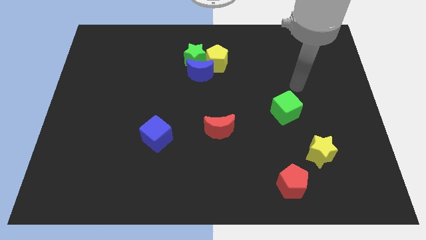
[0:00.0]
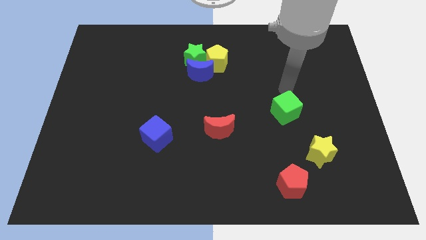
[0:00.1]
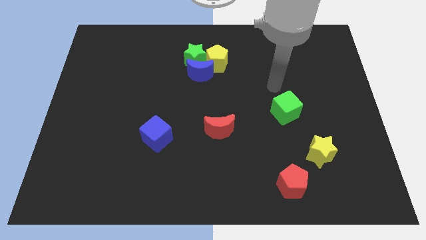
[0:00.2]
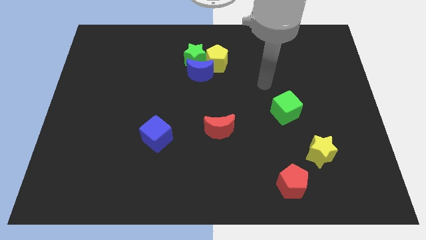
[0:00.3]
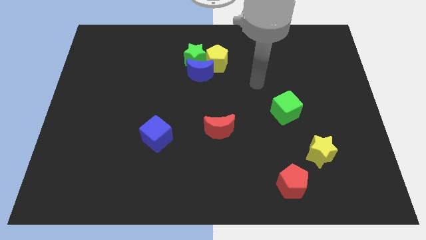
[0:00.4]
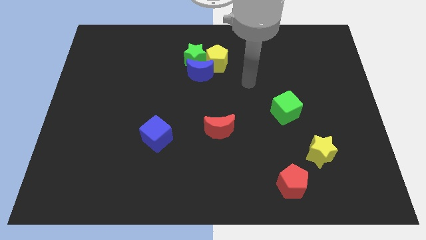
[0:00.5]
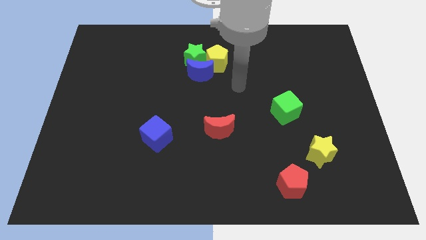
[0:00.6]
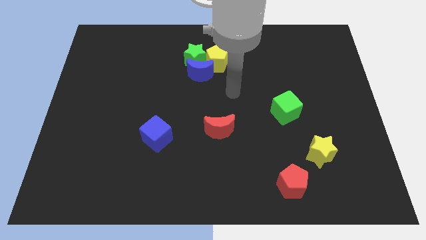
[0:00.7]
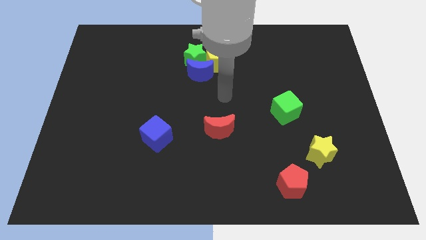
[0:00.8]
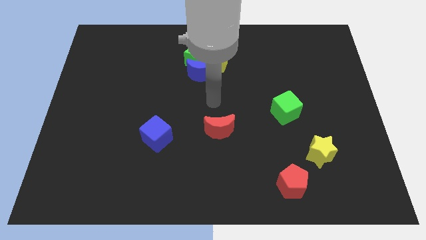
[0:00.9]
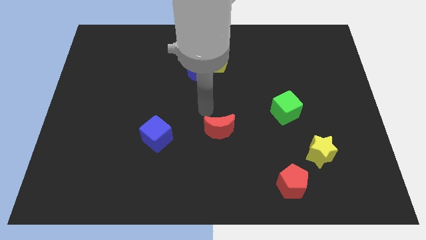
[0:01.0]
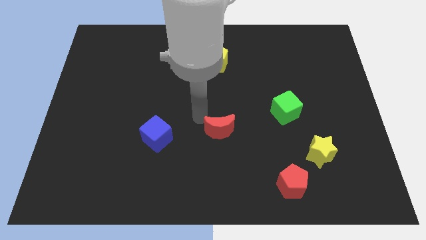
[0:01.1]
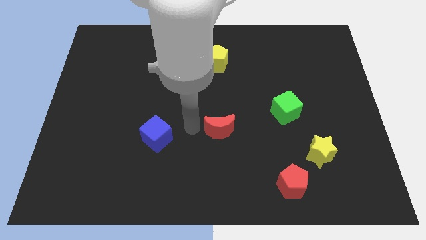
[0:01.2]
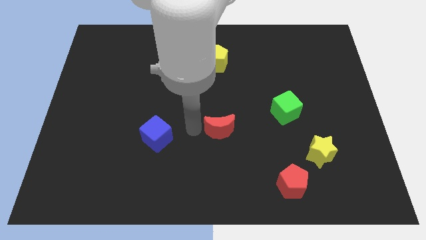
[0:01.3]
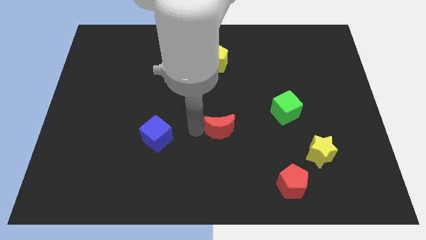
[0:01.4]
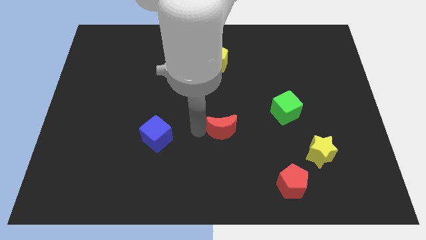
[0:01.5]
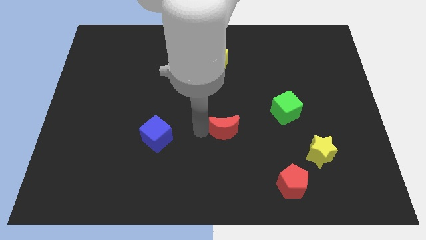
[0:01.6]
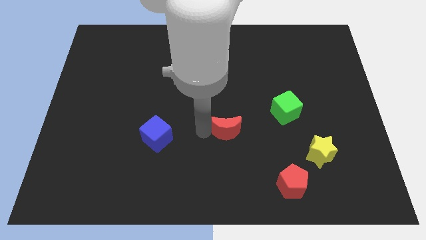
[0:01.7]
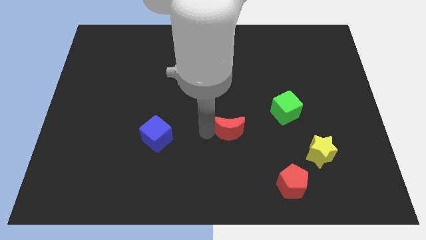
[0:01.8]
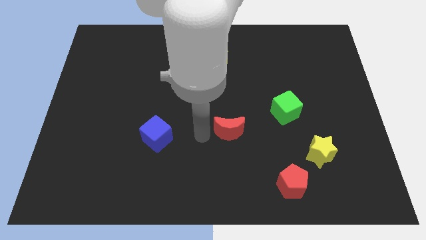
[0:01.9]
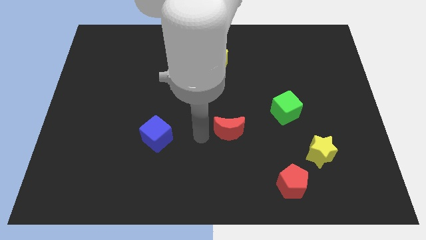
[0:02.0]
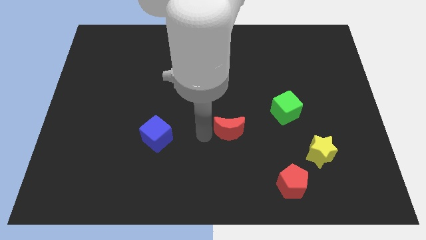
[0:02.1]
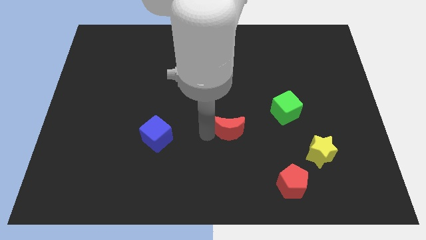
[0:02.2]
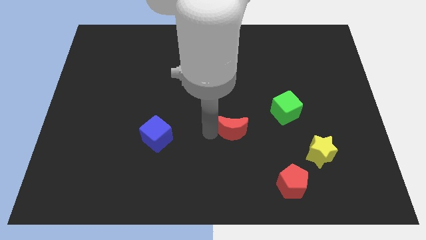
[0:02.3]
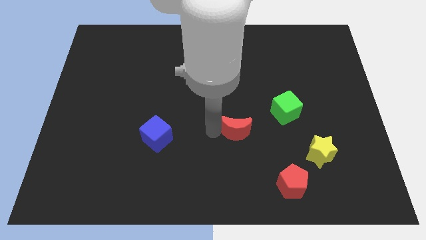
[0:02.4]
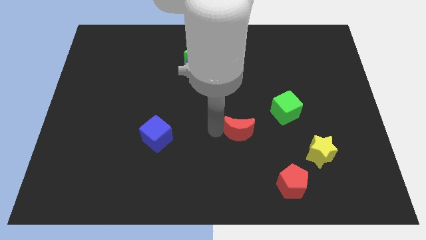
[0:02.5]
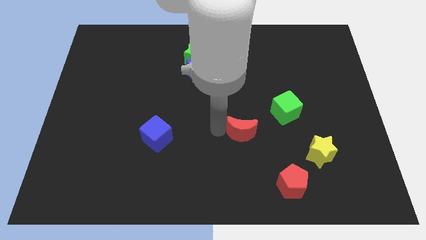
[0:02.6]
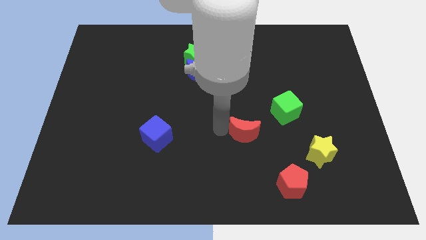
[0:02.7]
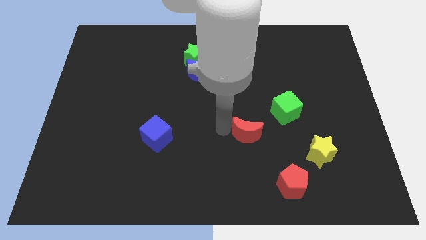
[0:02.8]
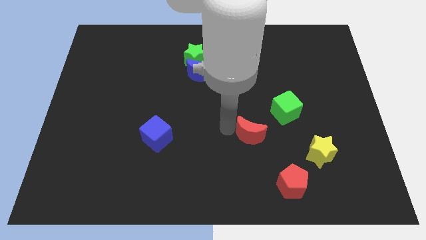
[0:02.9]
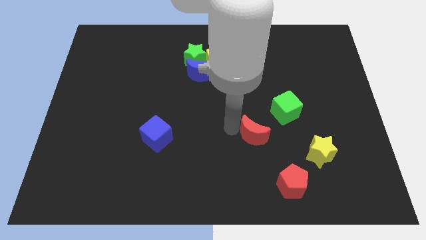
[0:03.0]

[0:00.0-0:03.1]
slide the red moon right a little bit

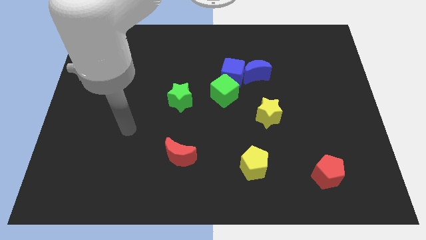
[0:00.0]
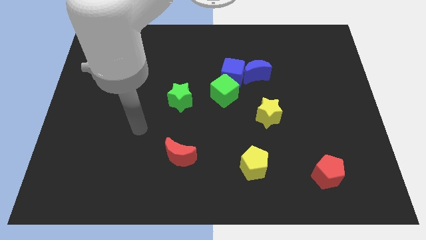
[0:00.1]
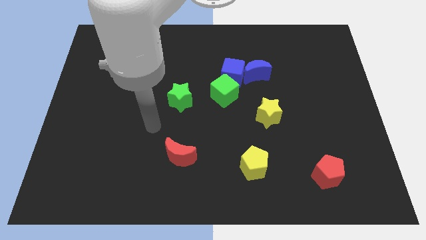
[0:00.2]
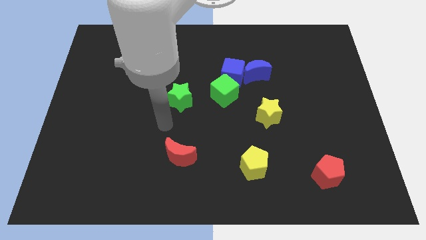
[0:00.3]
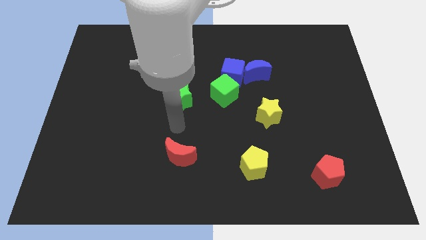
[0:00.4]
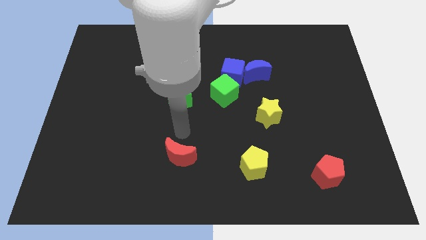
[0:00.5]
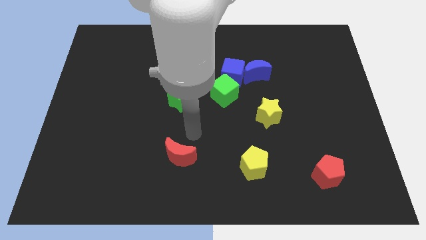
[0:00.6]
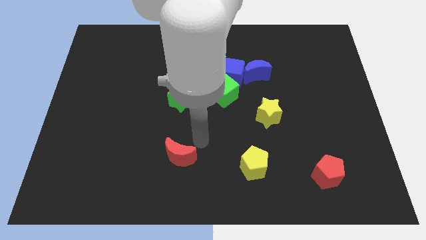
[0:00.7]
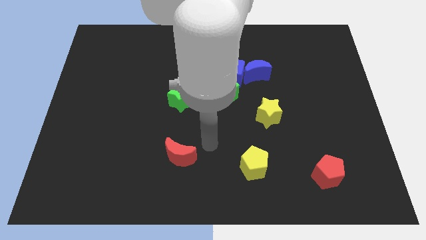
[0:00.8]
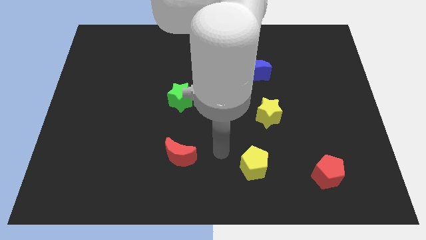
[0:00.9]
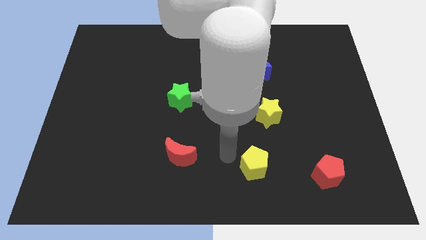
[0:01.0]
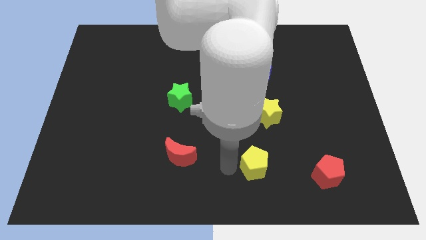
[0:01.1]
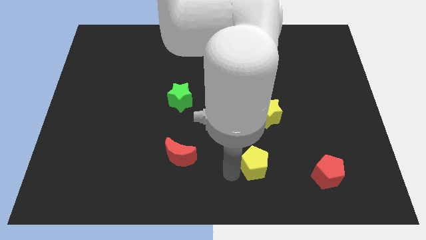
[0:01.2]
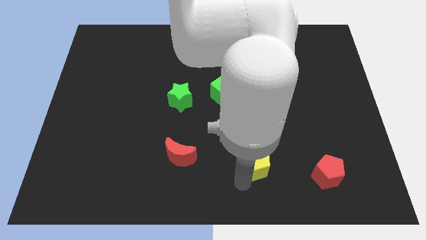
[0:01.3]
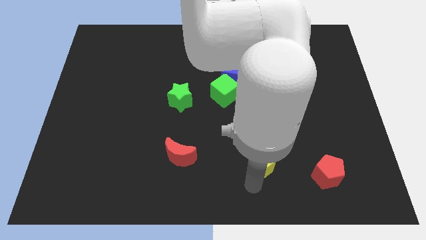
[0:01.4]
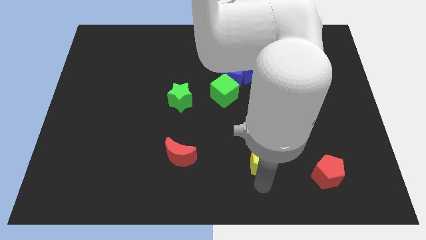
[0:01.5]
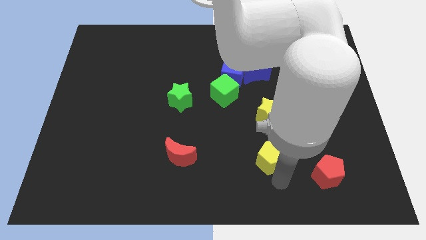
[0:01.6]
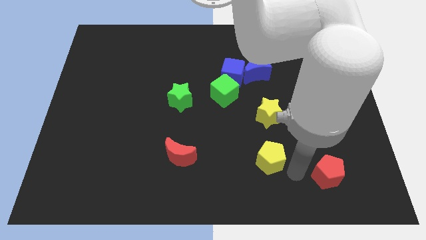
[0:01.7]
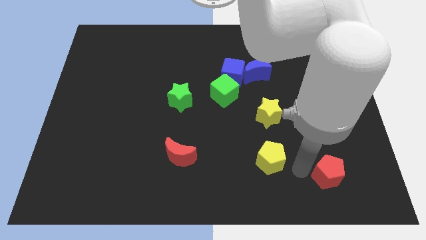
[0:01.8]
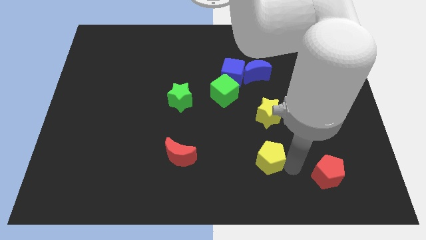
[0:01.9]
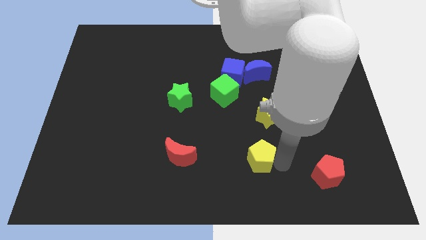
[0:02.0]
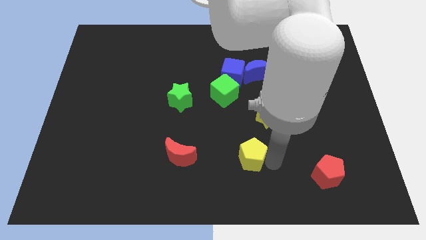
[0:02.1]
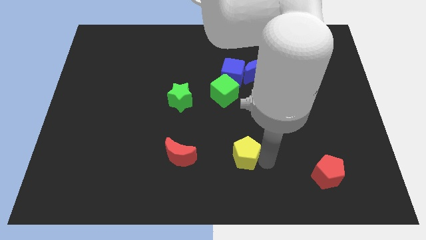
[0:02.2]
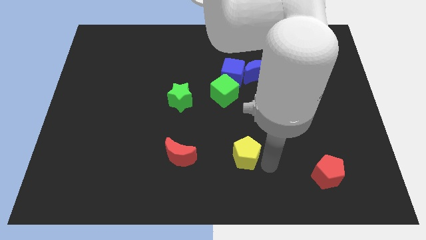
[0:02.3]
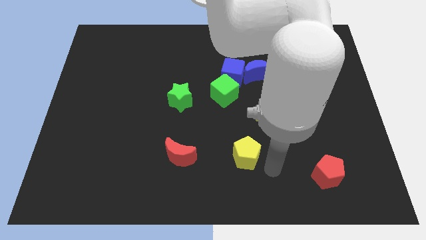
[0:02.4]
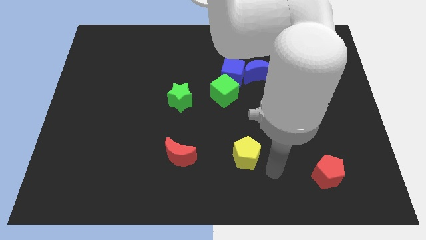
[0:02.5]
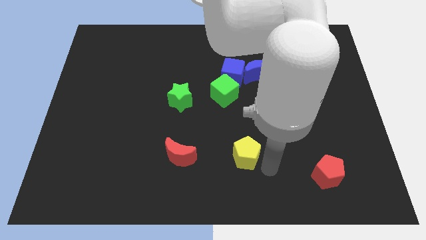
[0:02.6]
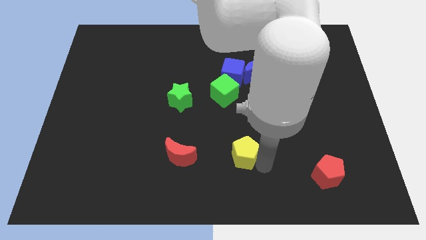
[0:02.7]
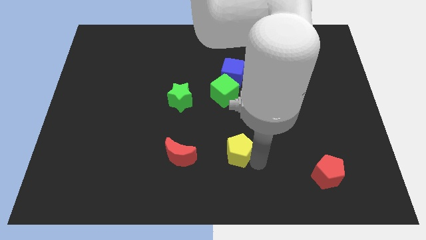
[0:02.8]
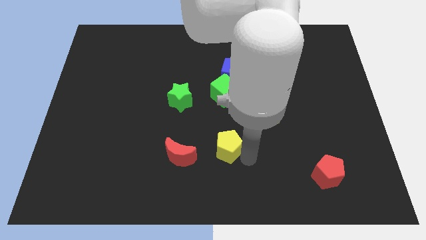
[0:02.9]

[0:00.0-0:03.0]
slide the yellow pentagon up and to the left a little bit

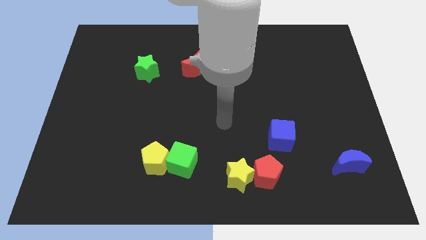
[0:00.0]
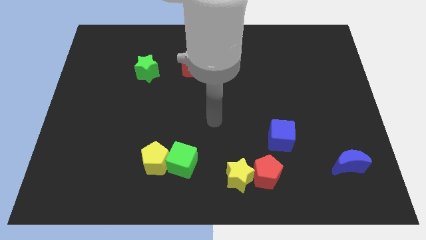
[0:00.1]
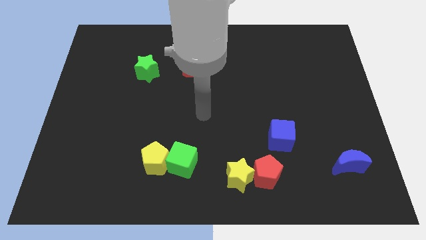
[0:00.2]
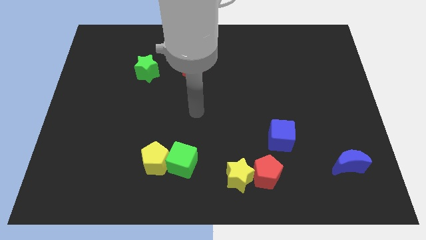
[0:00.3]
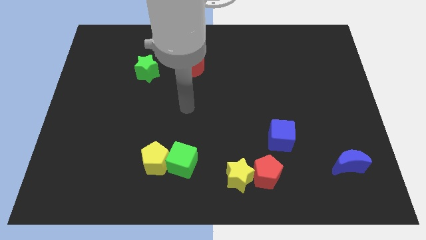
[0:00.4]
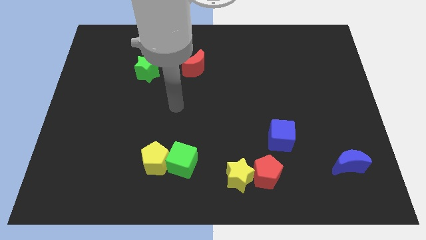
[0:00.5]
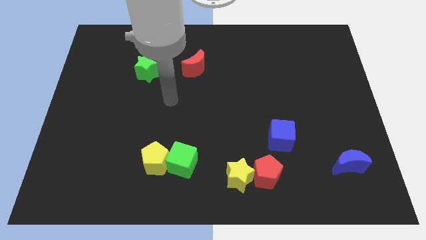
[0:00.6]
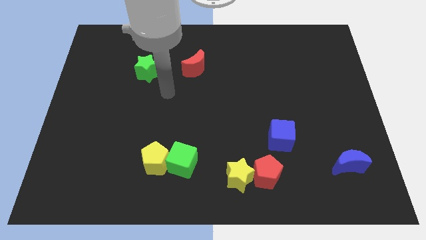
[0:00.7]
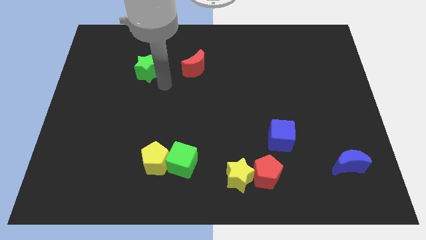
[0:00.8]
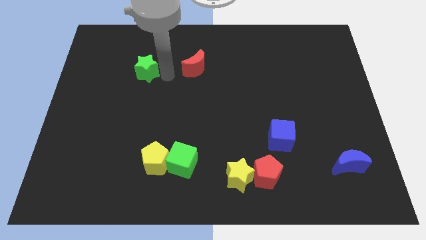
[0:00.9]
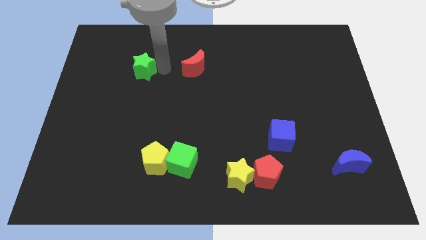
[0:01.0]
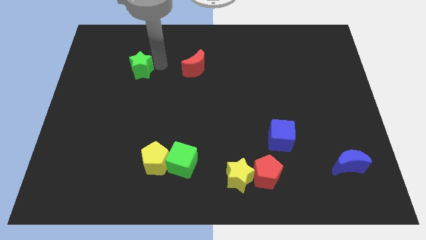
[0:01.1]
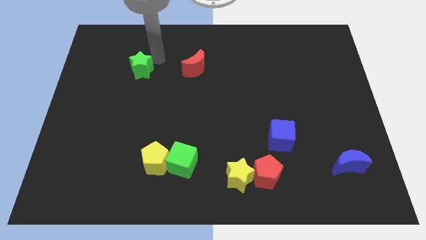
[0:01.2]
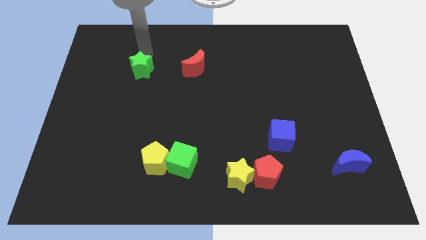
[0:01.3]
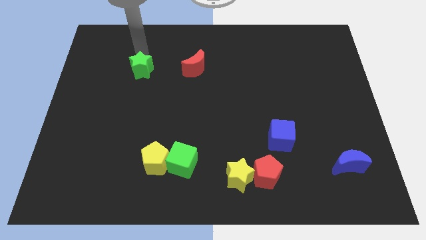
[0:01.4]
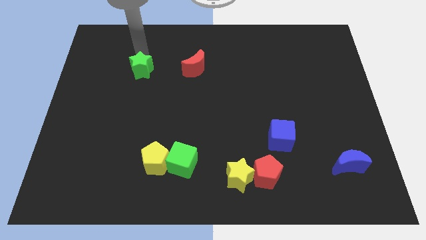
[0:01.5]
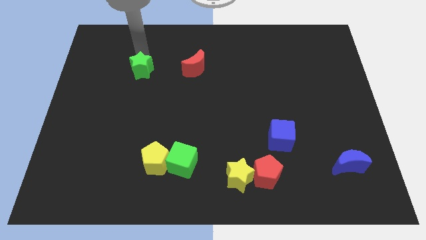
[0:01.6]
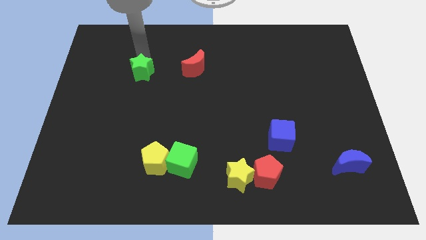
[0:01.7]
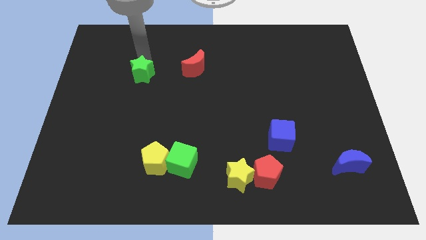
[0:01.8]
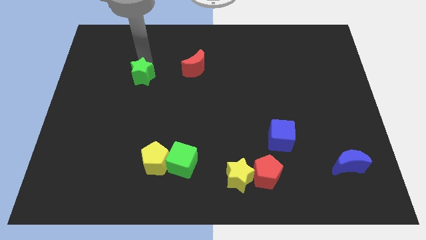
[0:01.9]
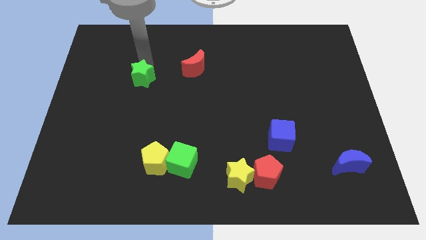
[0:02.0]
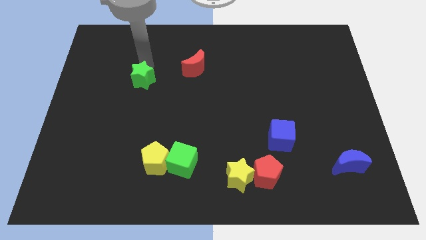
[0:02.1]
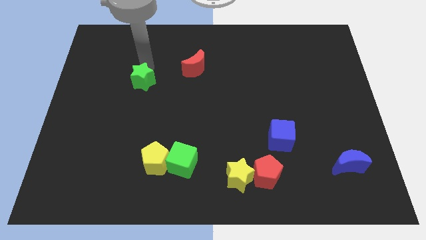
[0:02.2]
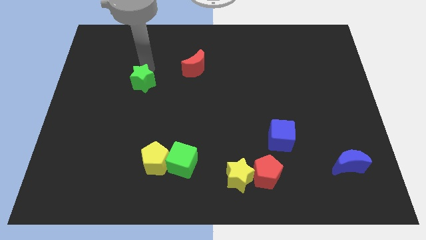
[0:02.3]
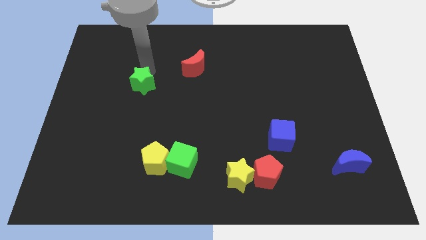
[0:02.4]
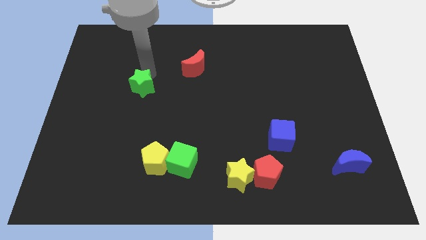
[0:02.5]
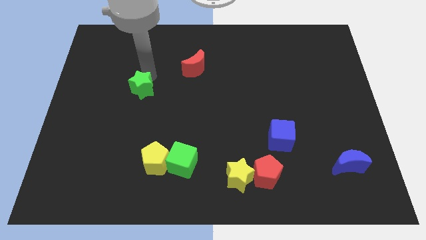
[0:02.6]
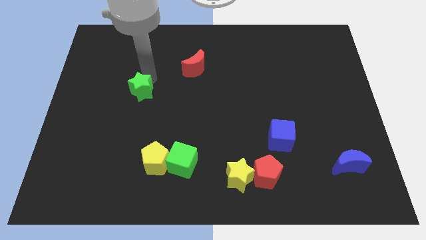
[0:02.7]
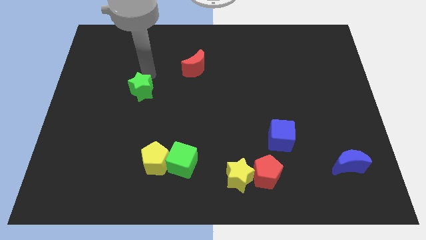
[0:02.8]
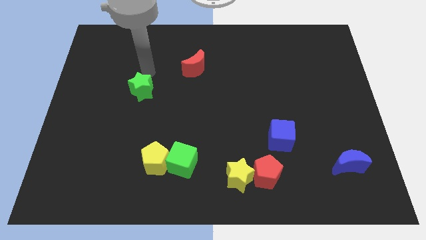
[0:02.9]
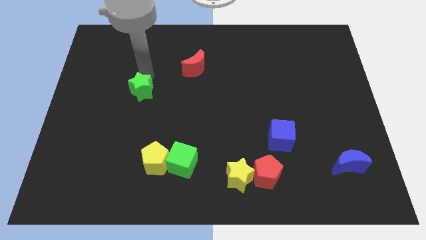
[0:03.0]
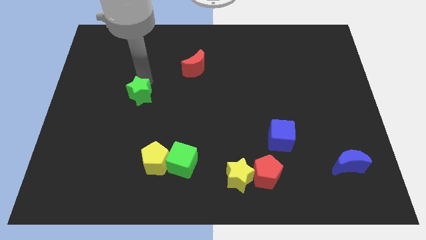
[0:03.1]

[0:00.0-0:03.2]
slightly push the green star downwards
